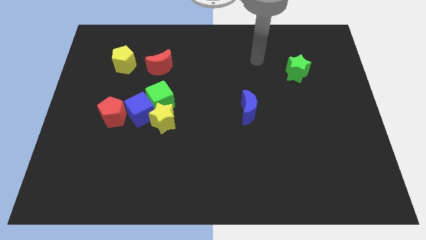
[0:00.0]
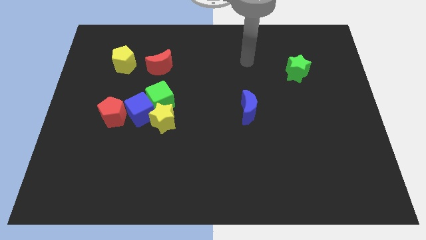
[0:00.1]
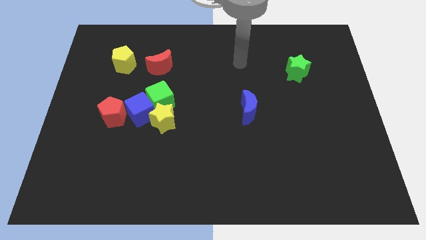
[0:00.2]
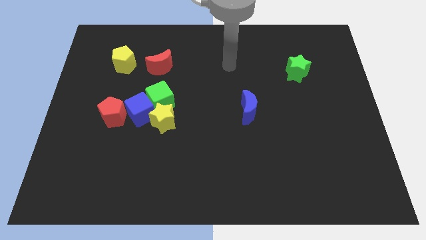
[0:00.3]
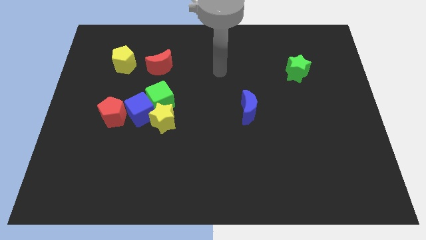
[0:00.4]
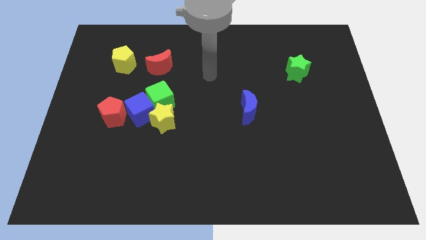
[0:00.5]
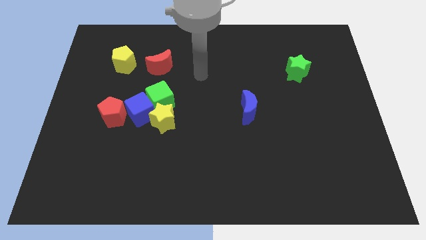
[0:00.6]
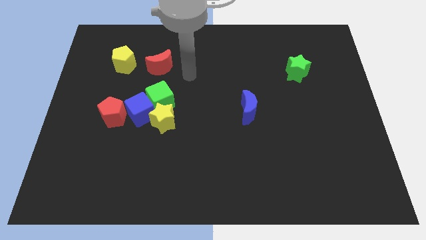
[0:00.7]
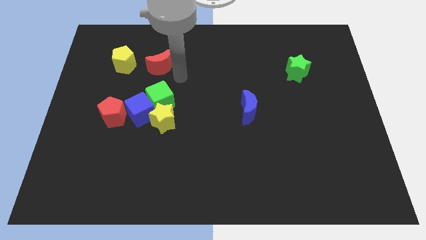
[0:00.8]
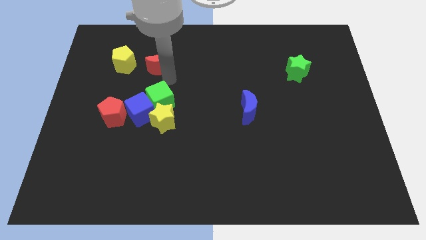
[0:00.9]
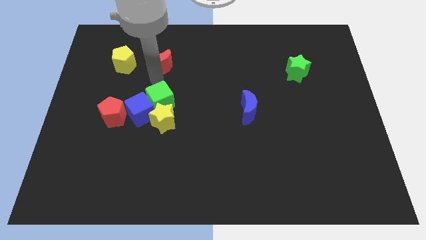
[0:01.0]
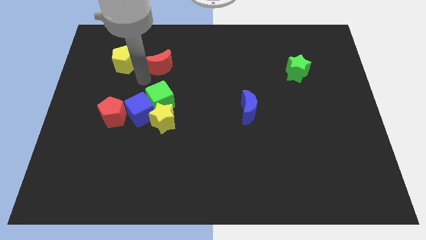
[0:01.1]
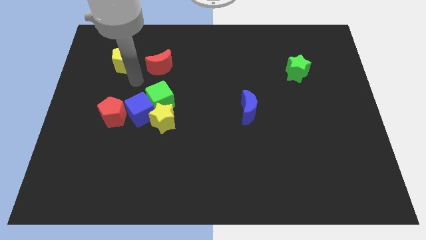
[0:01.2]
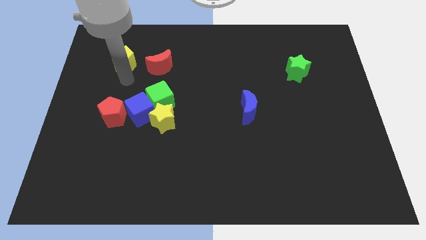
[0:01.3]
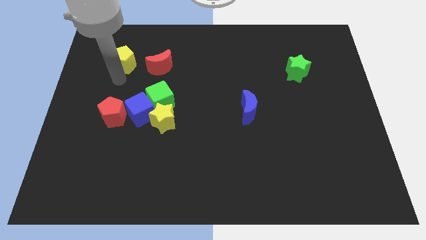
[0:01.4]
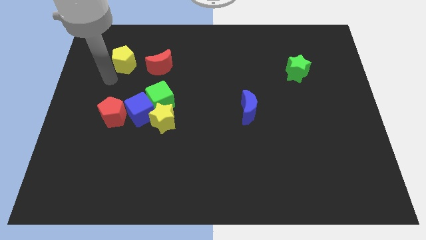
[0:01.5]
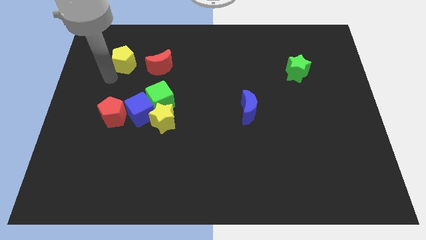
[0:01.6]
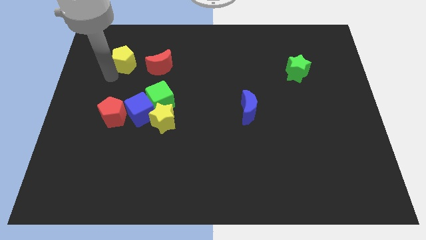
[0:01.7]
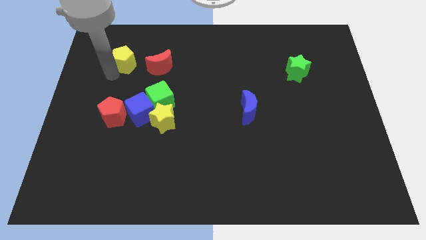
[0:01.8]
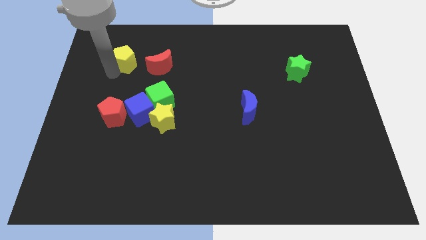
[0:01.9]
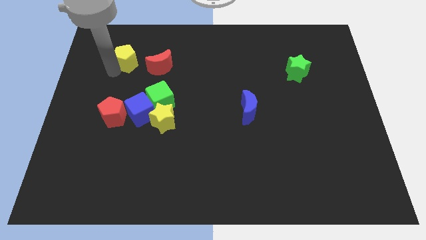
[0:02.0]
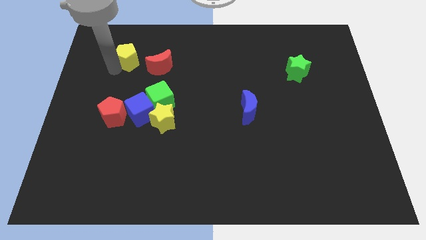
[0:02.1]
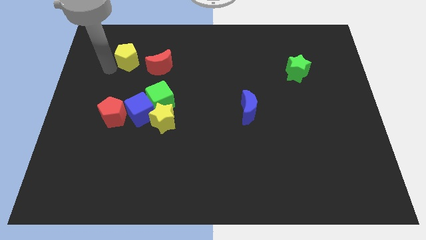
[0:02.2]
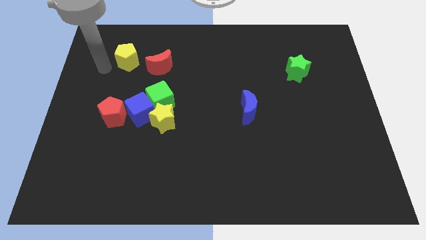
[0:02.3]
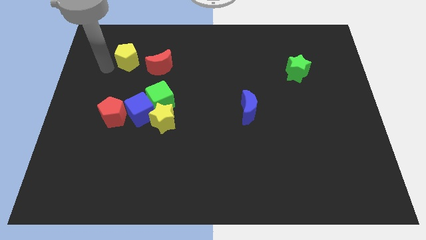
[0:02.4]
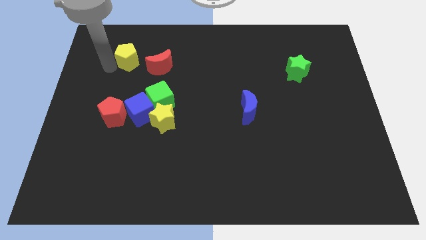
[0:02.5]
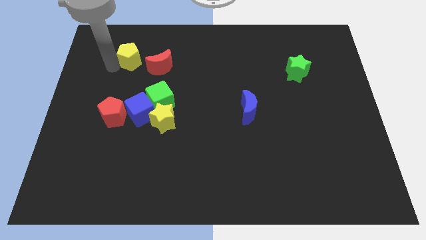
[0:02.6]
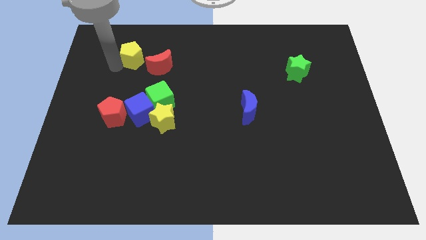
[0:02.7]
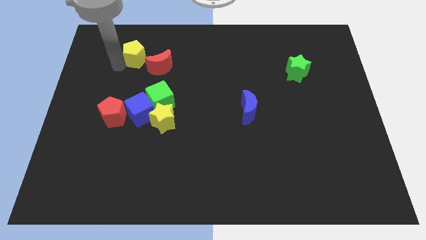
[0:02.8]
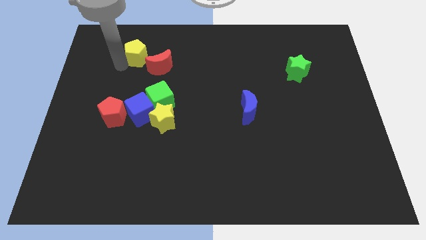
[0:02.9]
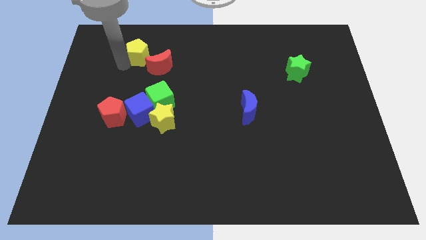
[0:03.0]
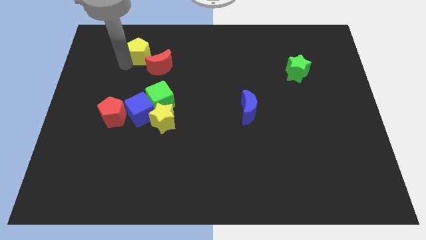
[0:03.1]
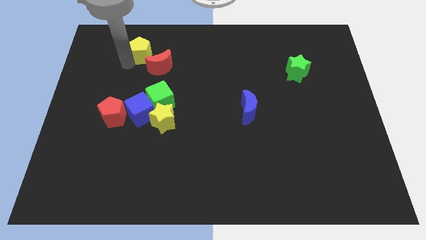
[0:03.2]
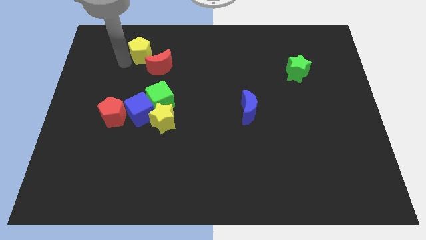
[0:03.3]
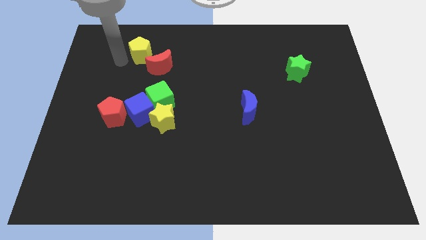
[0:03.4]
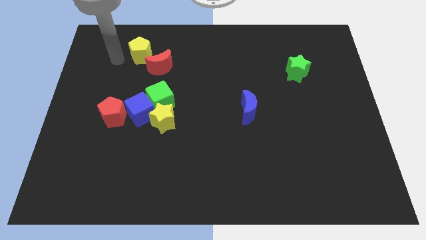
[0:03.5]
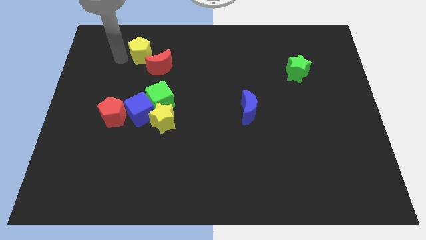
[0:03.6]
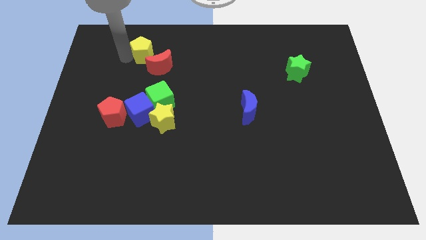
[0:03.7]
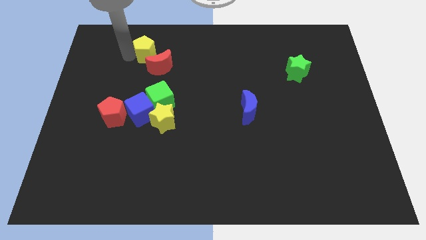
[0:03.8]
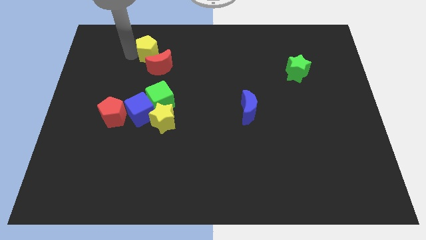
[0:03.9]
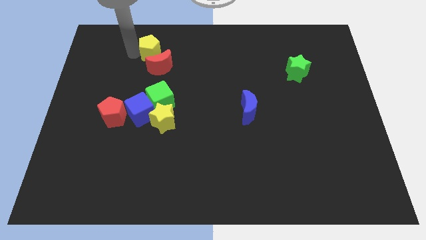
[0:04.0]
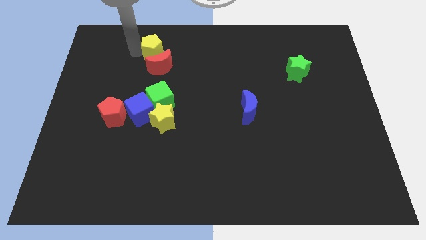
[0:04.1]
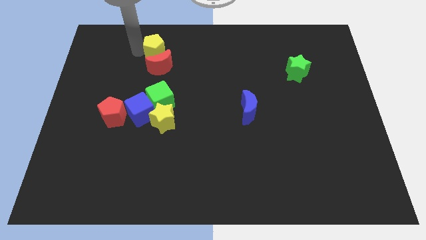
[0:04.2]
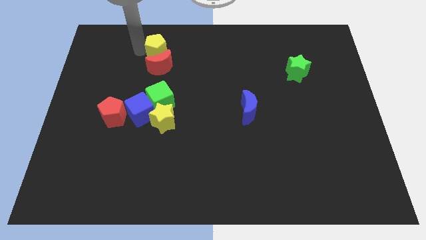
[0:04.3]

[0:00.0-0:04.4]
slightly move the yellow pentagon to the right

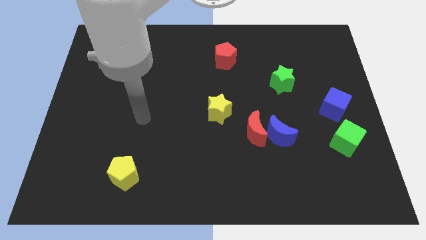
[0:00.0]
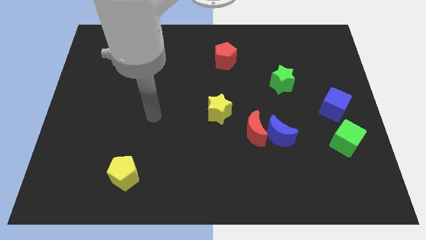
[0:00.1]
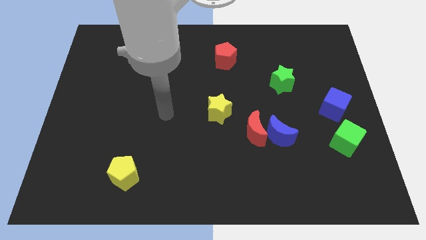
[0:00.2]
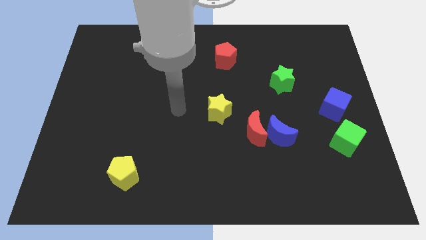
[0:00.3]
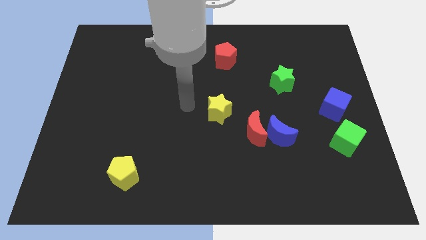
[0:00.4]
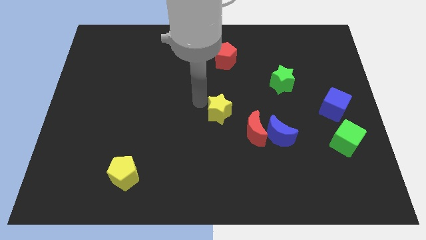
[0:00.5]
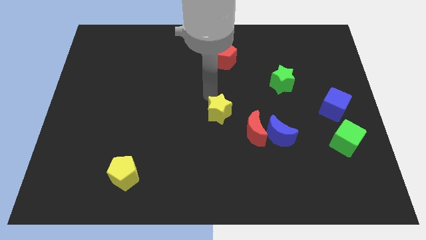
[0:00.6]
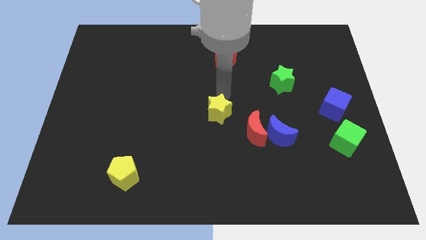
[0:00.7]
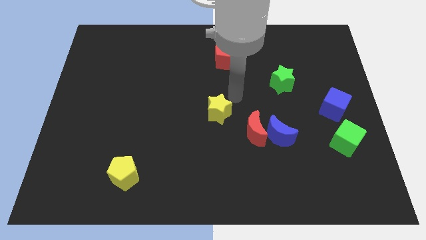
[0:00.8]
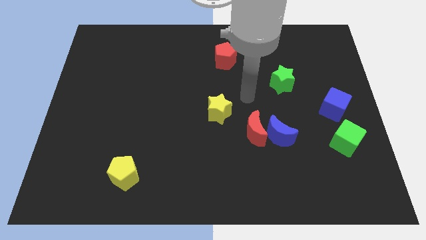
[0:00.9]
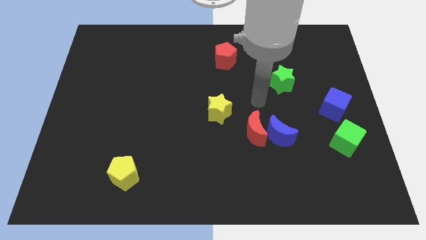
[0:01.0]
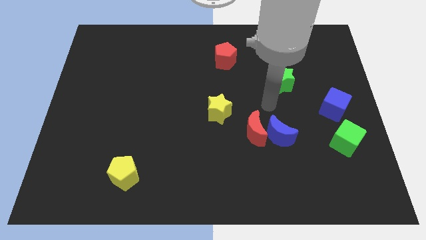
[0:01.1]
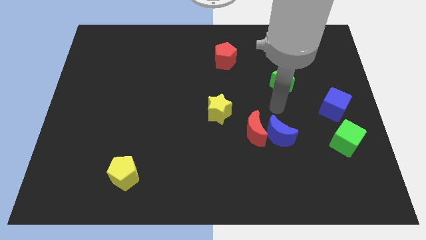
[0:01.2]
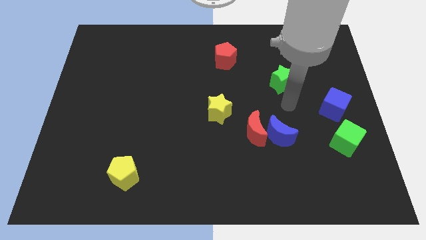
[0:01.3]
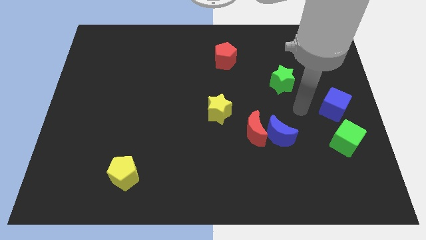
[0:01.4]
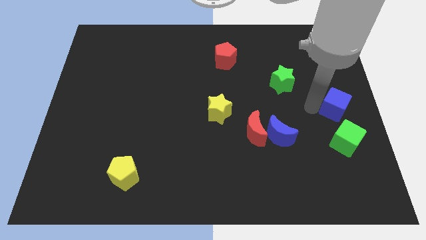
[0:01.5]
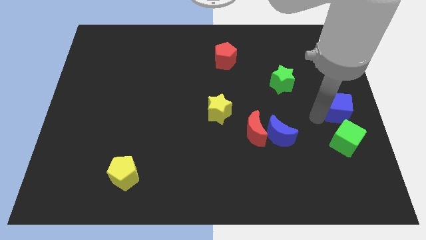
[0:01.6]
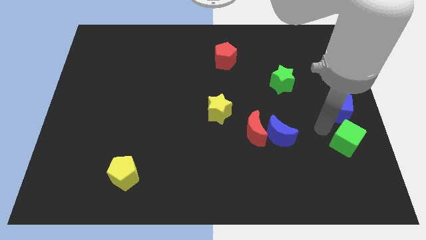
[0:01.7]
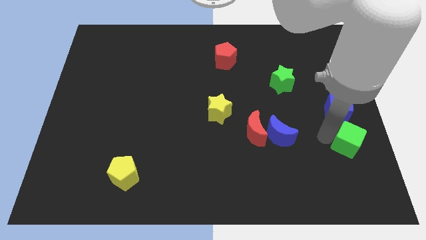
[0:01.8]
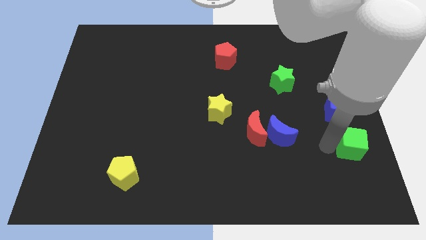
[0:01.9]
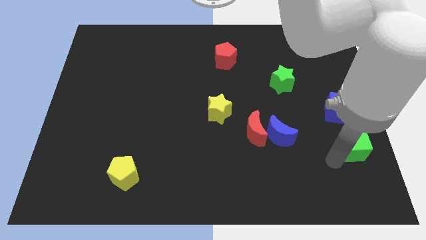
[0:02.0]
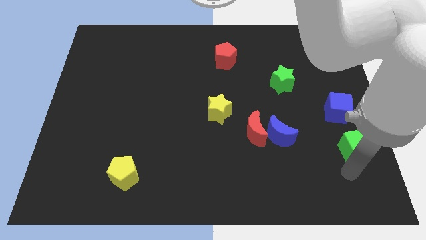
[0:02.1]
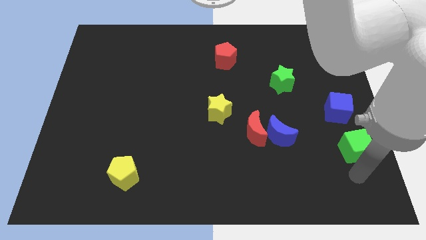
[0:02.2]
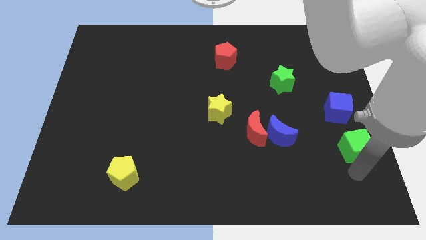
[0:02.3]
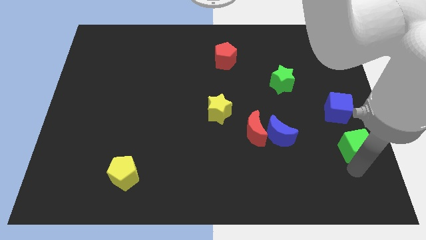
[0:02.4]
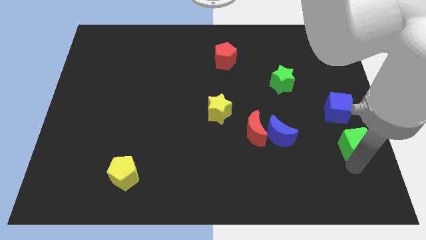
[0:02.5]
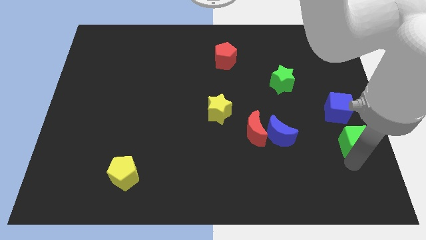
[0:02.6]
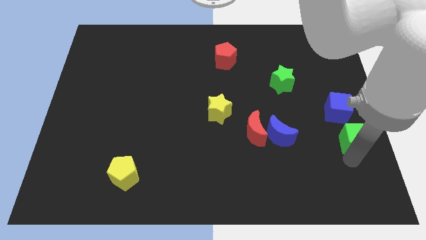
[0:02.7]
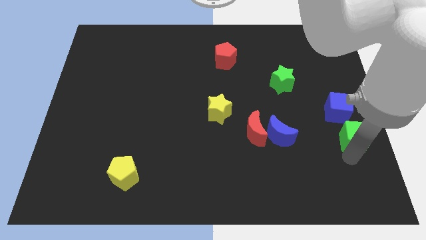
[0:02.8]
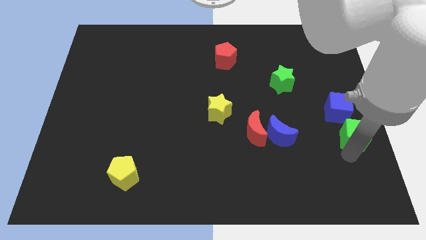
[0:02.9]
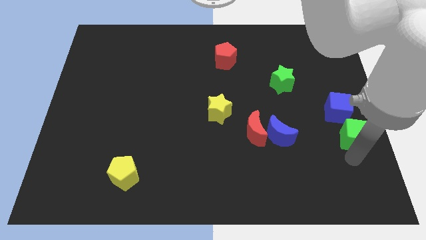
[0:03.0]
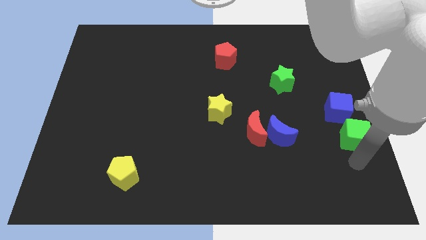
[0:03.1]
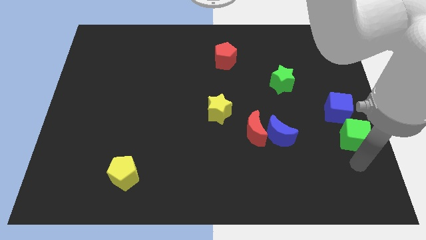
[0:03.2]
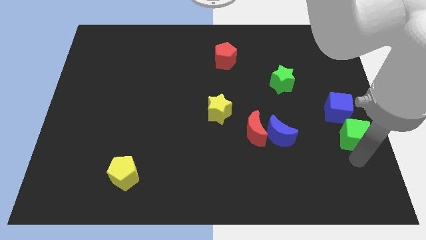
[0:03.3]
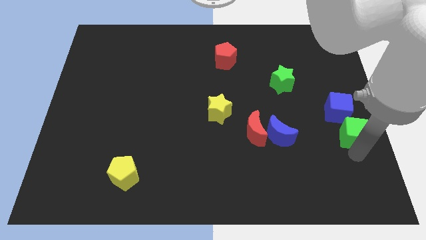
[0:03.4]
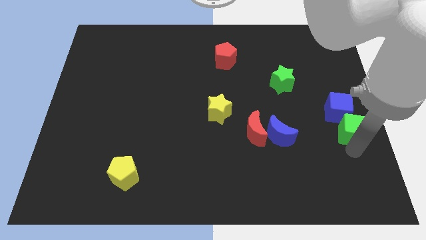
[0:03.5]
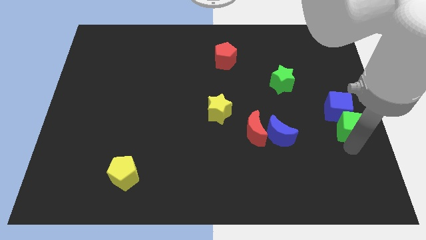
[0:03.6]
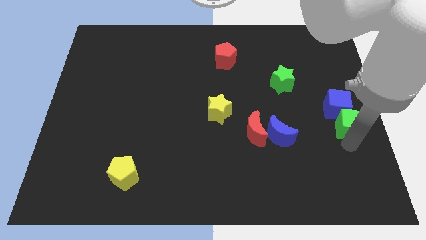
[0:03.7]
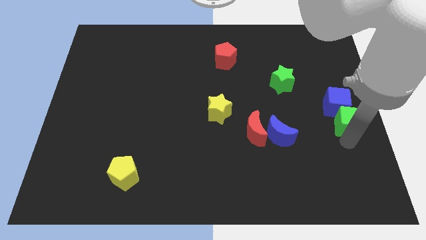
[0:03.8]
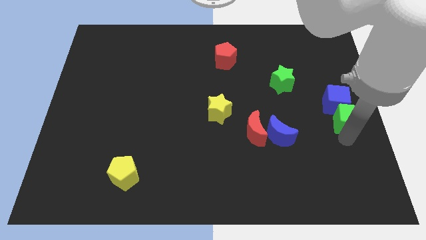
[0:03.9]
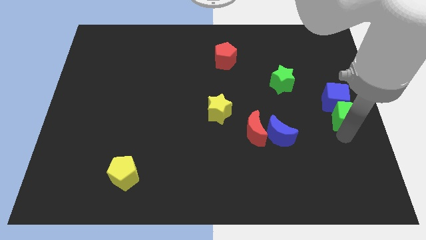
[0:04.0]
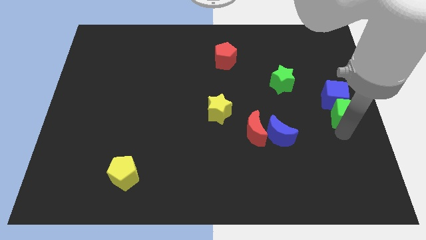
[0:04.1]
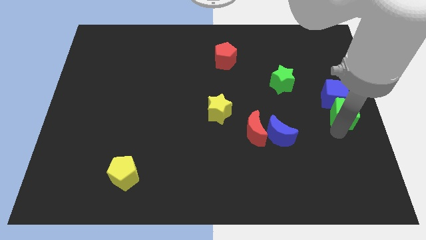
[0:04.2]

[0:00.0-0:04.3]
slide the green cube upwards a little
